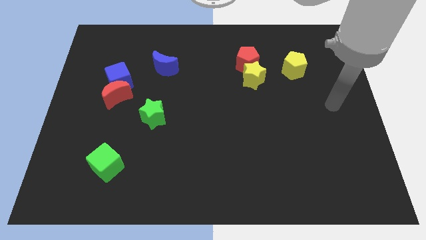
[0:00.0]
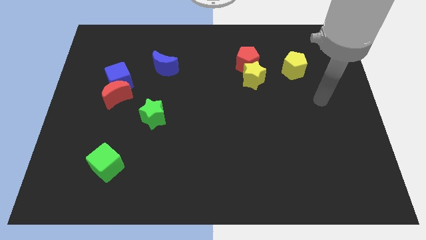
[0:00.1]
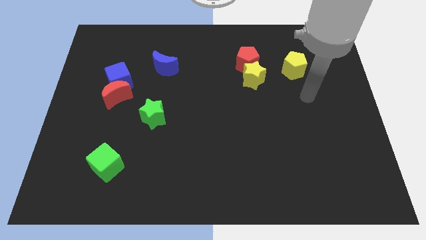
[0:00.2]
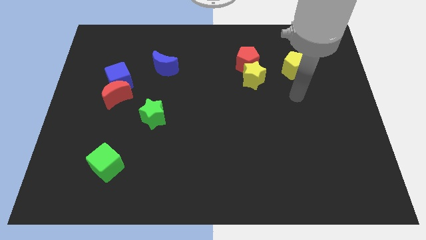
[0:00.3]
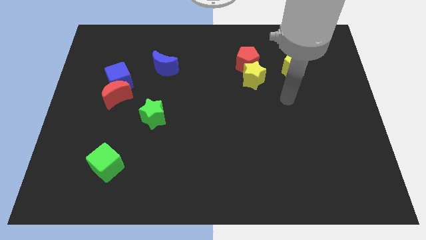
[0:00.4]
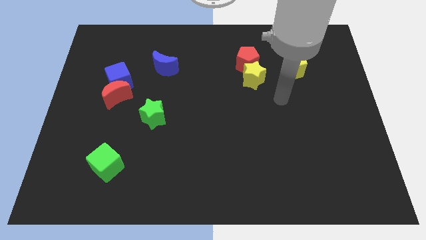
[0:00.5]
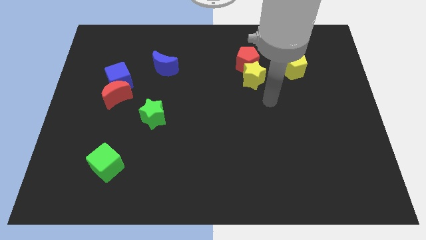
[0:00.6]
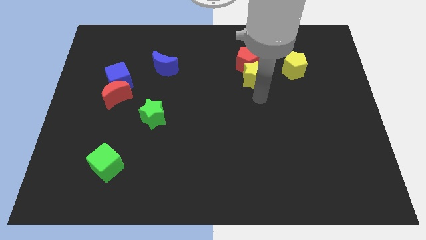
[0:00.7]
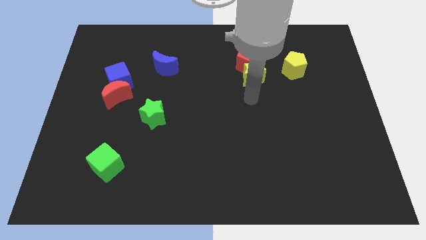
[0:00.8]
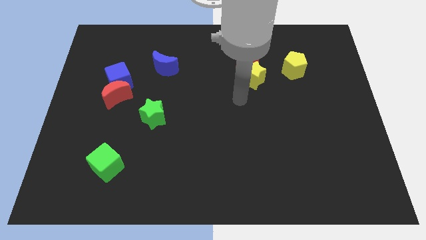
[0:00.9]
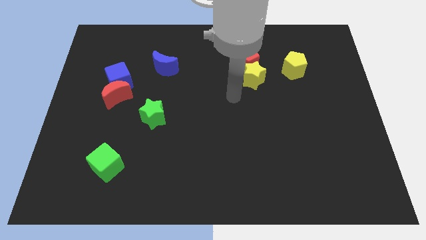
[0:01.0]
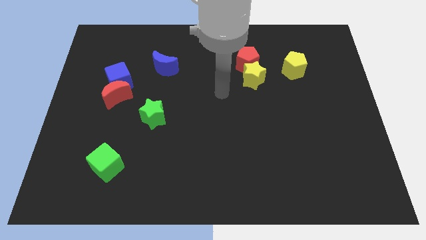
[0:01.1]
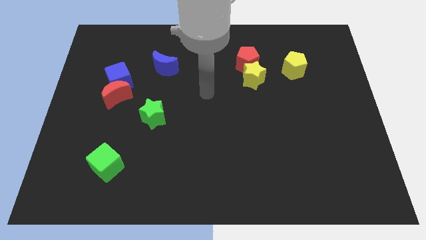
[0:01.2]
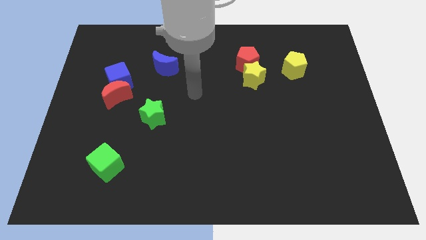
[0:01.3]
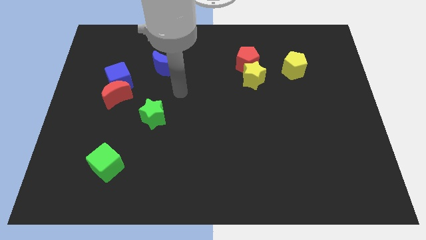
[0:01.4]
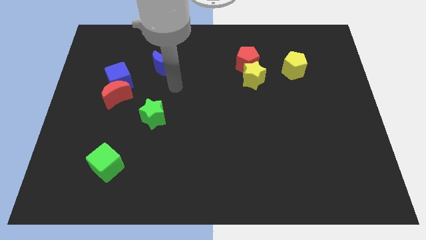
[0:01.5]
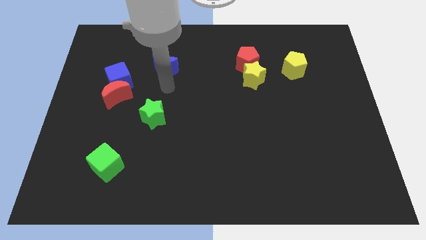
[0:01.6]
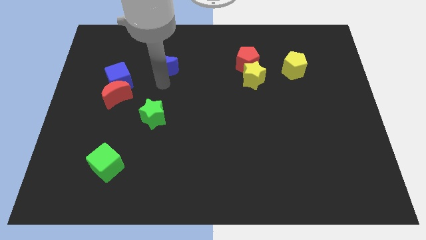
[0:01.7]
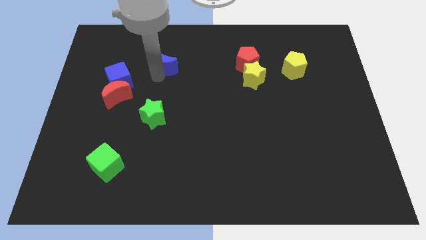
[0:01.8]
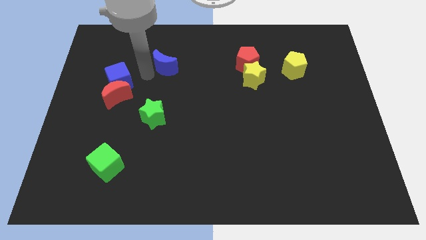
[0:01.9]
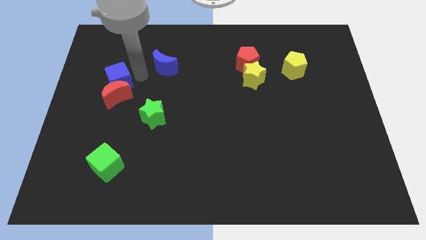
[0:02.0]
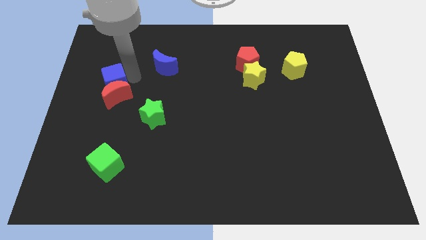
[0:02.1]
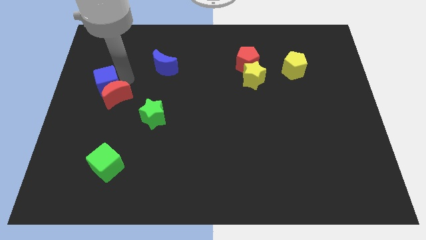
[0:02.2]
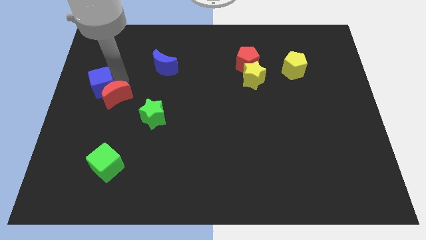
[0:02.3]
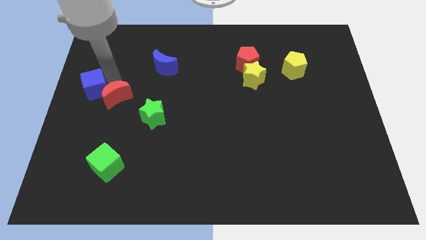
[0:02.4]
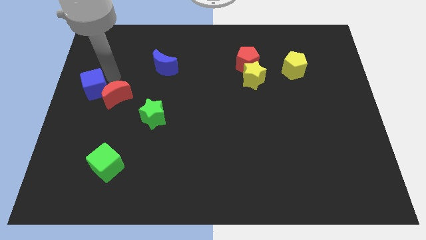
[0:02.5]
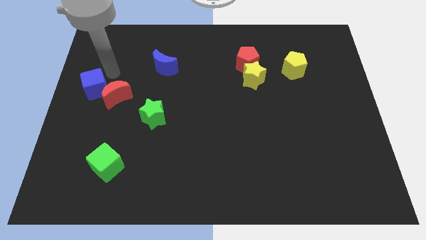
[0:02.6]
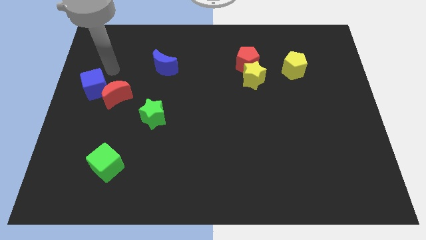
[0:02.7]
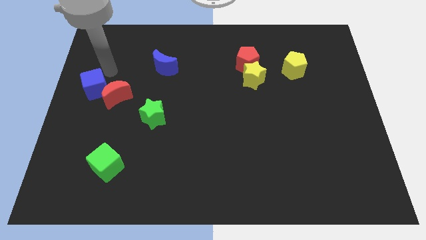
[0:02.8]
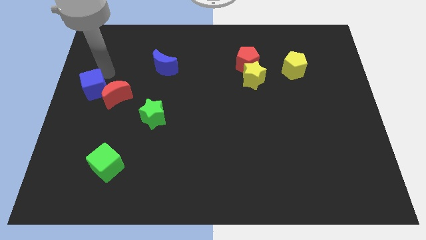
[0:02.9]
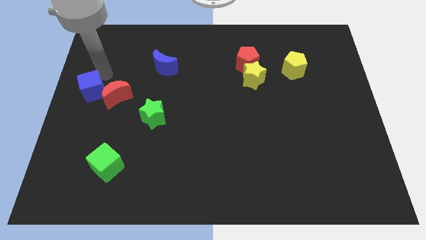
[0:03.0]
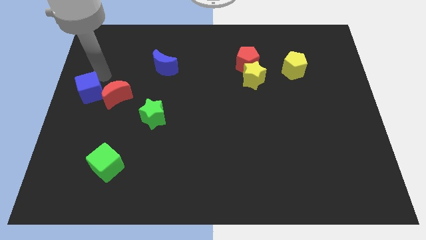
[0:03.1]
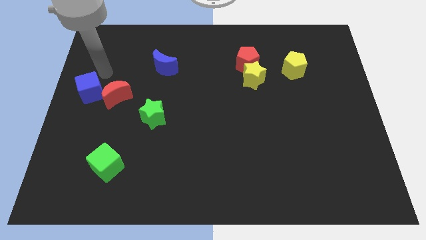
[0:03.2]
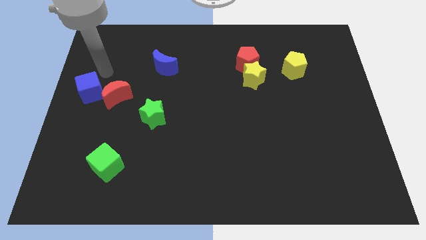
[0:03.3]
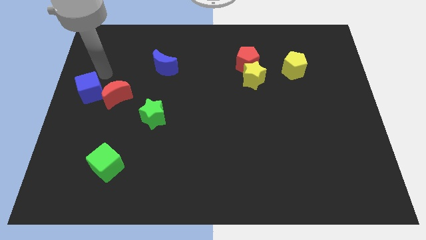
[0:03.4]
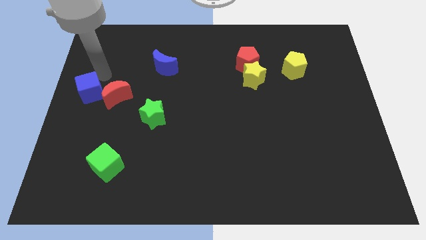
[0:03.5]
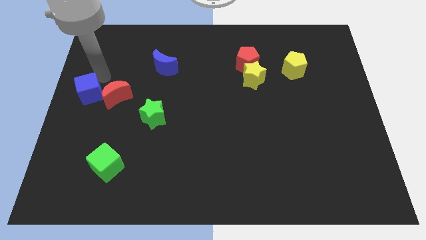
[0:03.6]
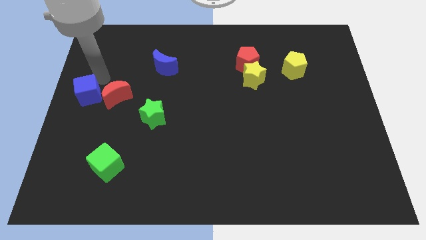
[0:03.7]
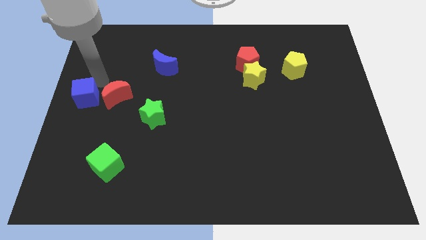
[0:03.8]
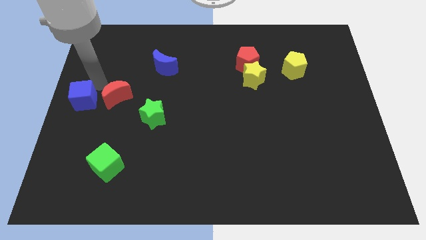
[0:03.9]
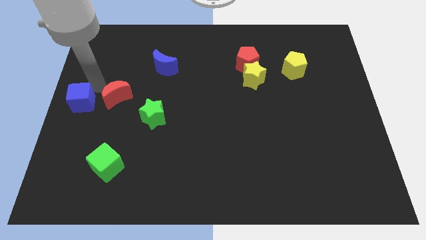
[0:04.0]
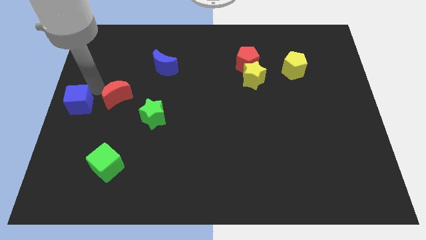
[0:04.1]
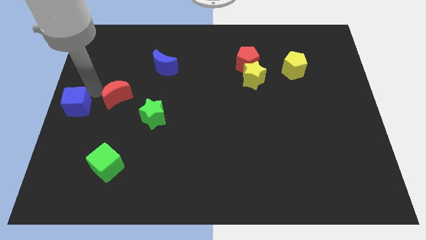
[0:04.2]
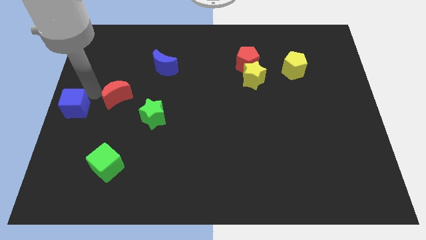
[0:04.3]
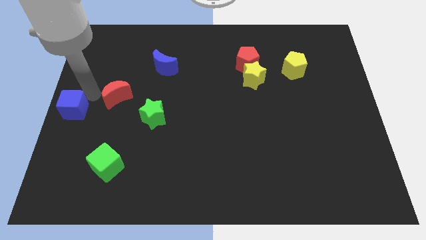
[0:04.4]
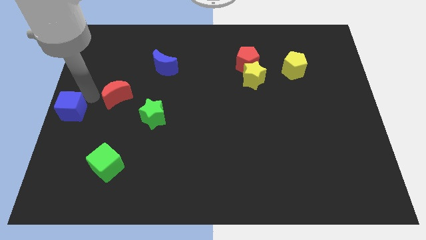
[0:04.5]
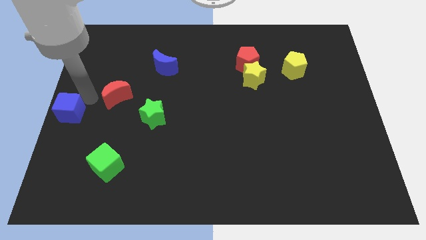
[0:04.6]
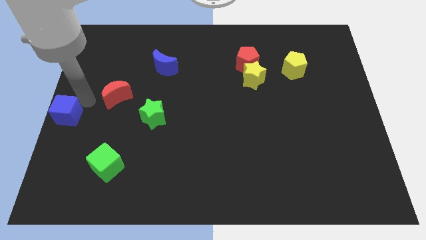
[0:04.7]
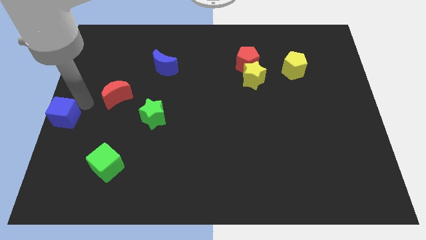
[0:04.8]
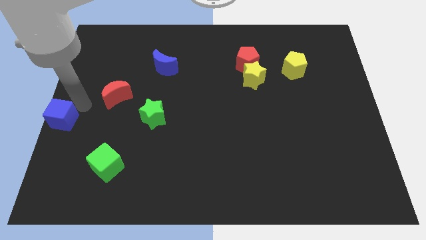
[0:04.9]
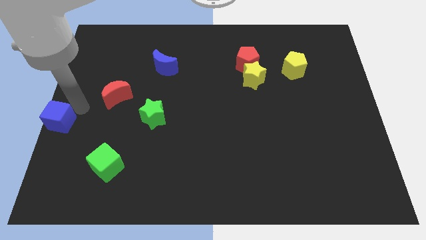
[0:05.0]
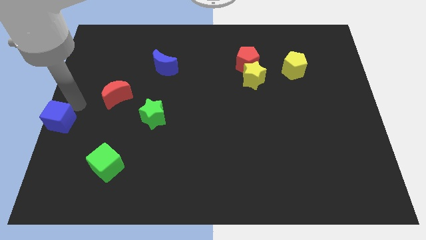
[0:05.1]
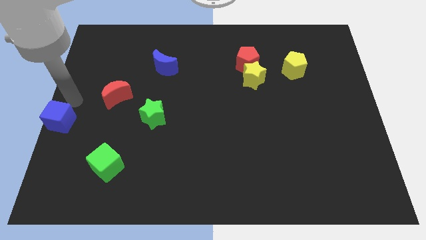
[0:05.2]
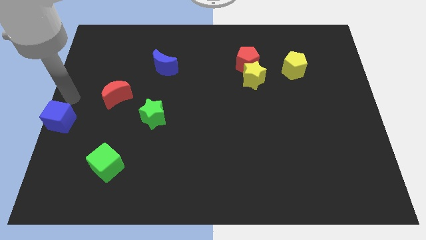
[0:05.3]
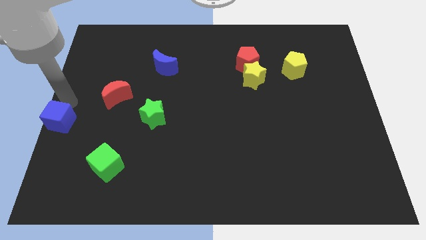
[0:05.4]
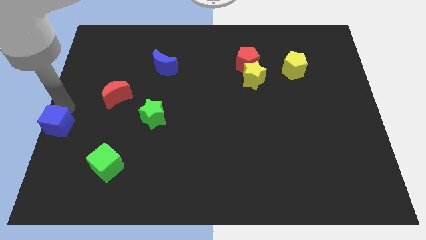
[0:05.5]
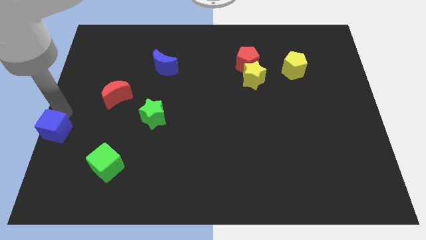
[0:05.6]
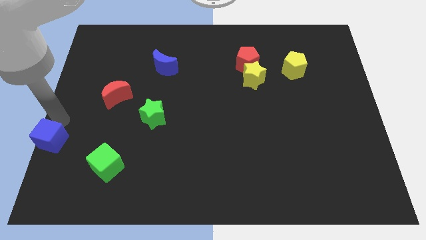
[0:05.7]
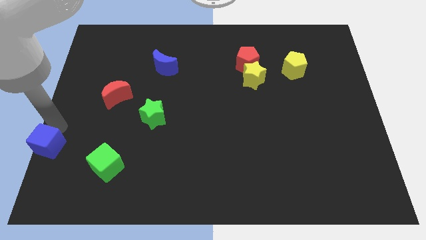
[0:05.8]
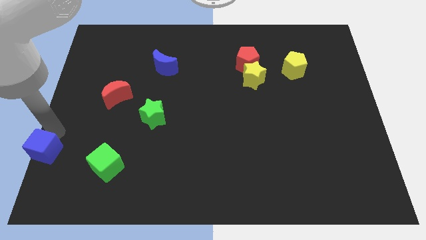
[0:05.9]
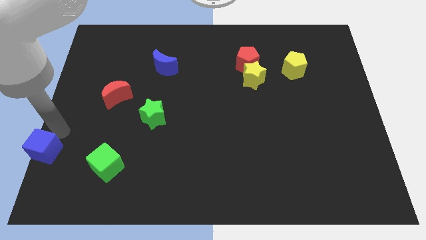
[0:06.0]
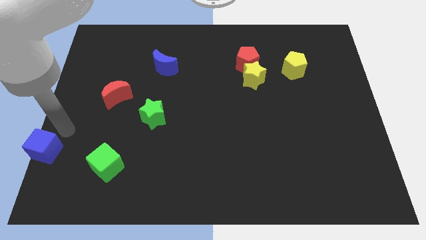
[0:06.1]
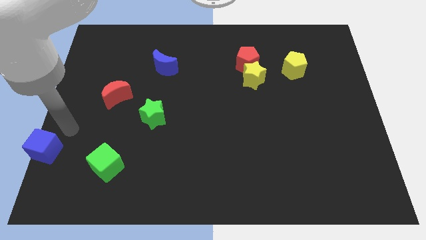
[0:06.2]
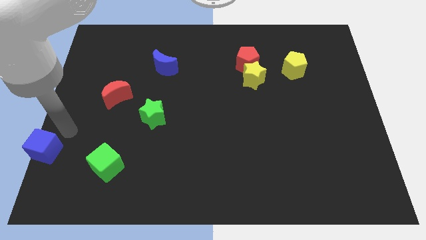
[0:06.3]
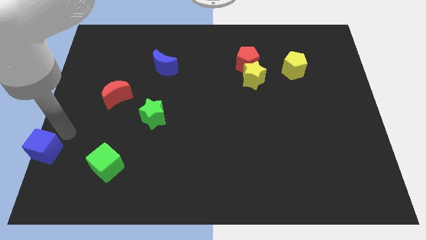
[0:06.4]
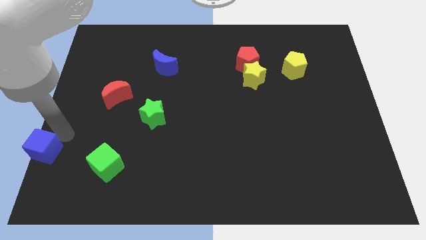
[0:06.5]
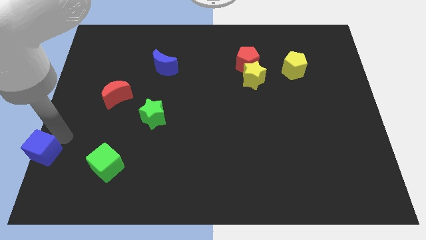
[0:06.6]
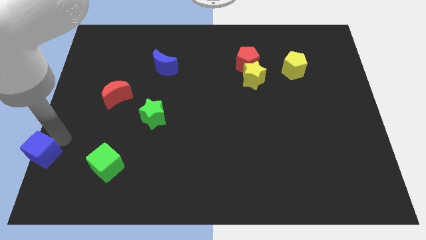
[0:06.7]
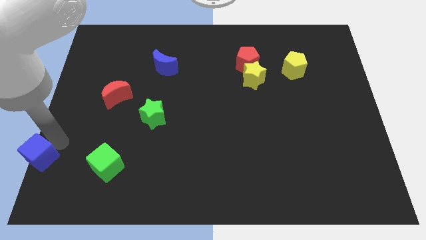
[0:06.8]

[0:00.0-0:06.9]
put the blue cube to the lower left corner

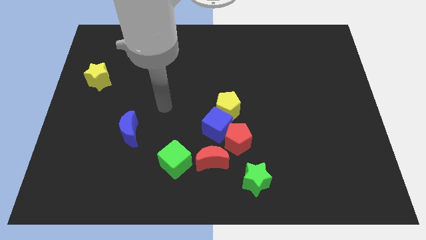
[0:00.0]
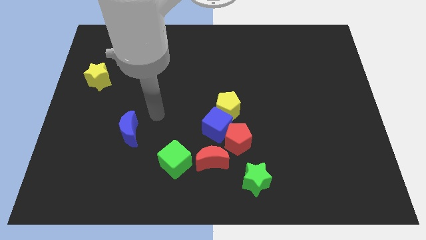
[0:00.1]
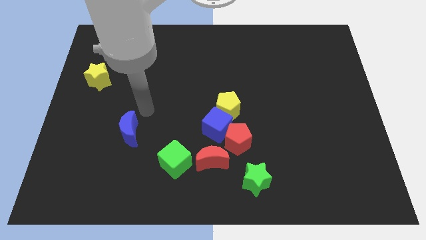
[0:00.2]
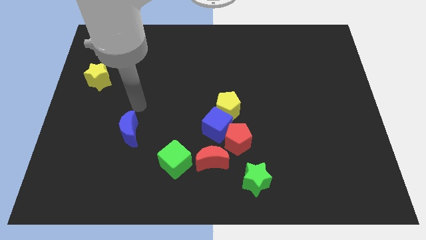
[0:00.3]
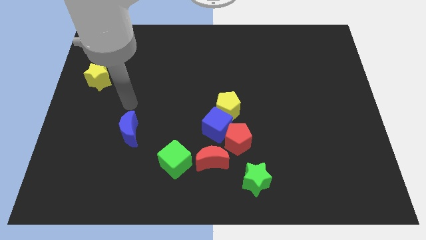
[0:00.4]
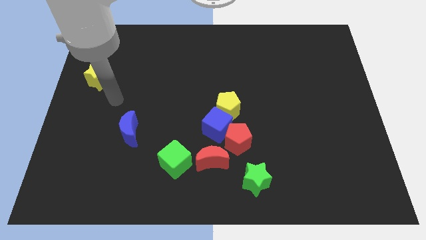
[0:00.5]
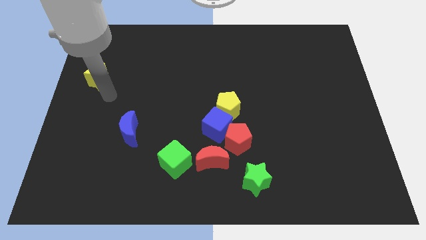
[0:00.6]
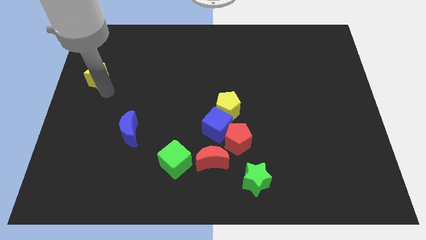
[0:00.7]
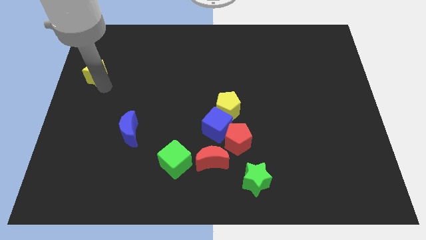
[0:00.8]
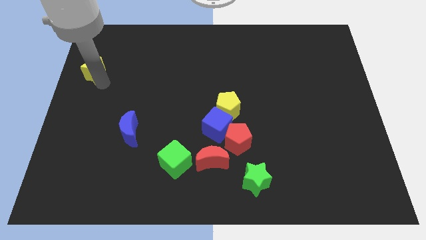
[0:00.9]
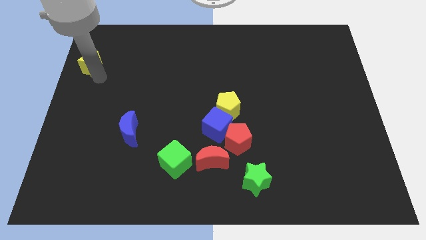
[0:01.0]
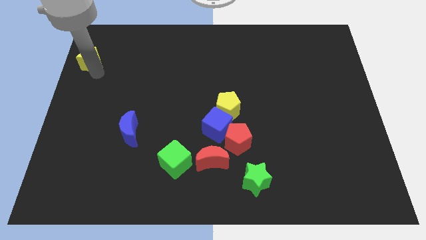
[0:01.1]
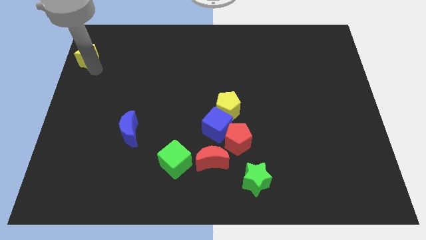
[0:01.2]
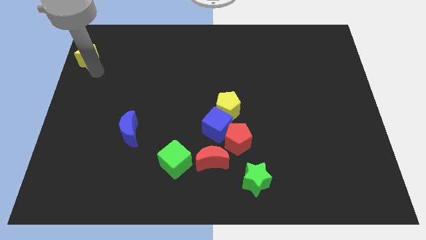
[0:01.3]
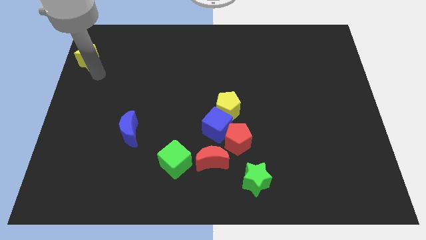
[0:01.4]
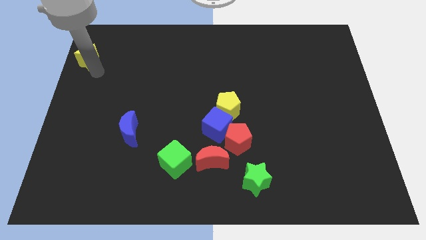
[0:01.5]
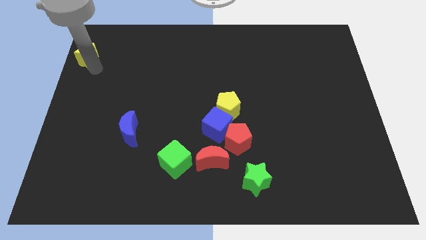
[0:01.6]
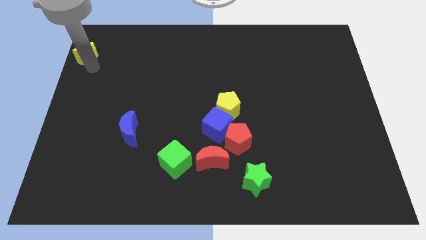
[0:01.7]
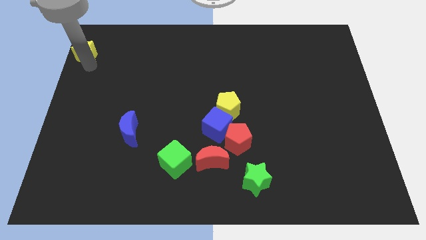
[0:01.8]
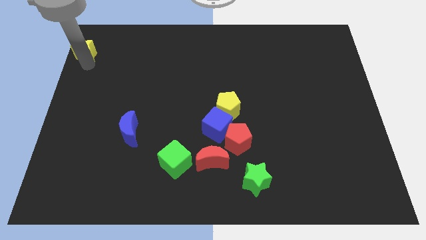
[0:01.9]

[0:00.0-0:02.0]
move the yellow star to the upper left corner
